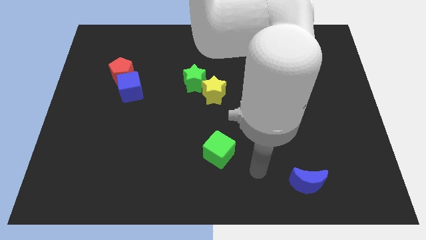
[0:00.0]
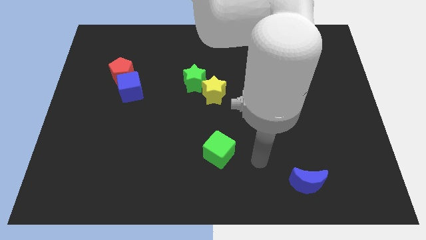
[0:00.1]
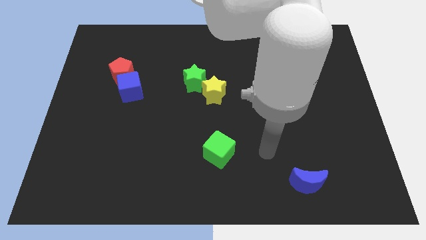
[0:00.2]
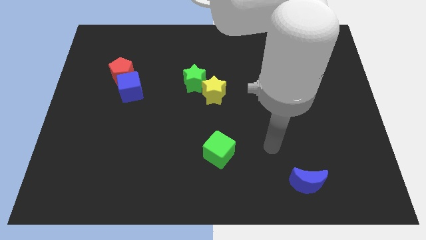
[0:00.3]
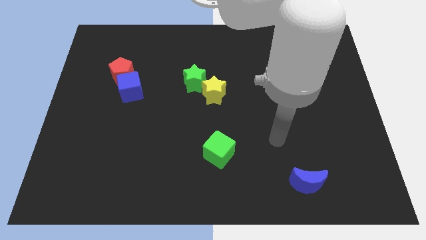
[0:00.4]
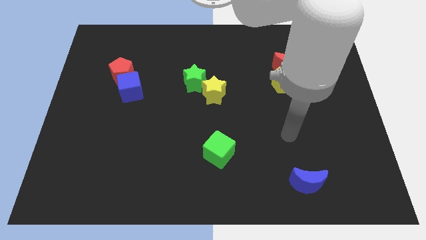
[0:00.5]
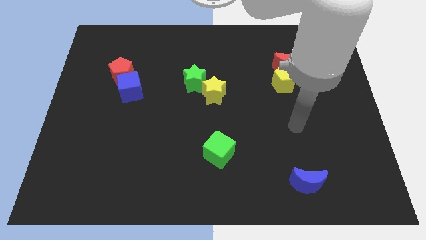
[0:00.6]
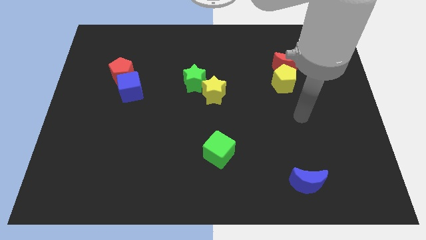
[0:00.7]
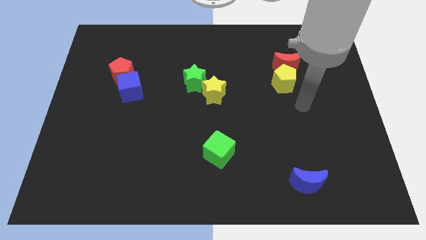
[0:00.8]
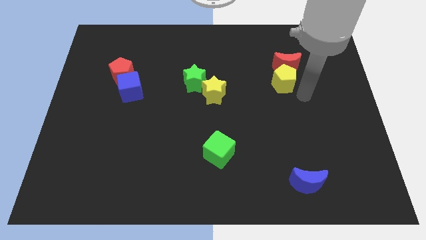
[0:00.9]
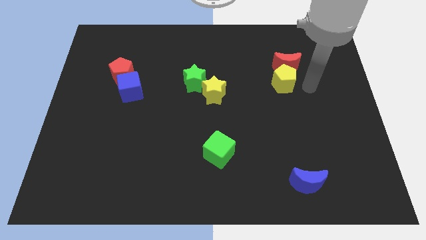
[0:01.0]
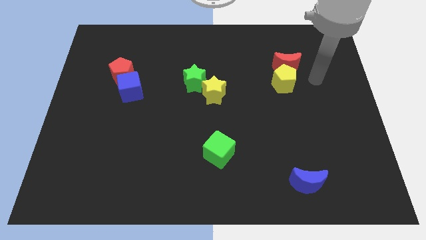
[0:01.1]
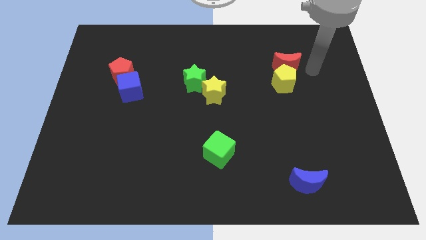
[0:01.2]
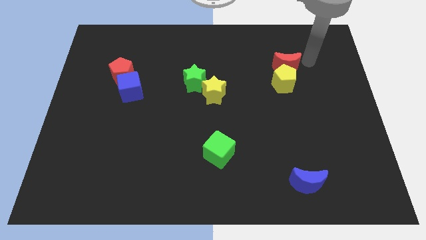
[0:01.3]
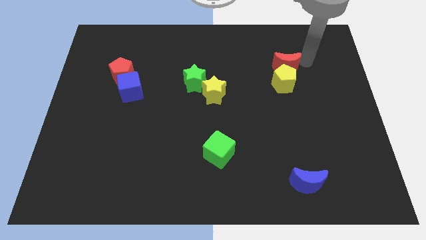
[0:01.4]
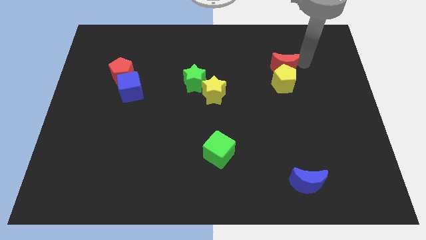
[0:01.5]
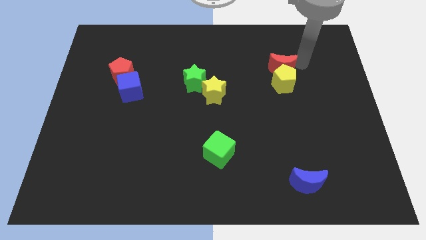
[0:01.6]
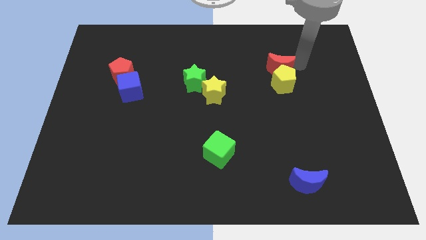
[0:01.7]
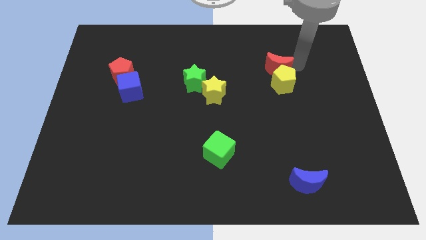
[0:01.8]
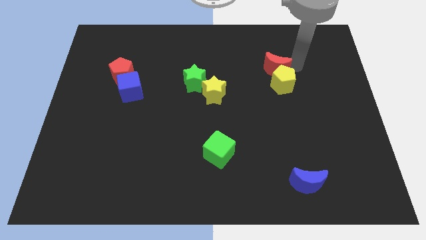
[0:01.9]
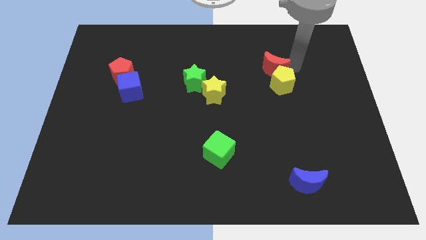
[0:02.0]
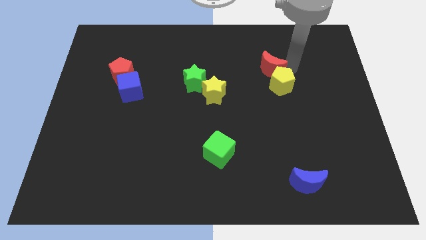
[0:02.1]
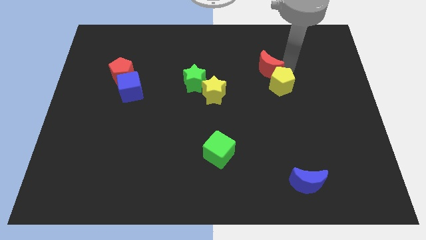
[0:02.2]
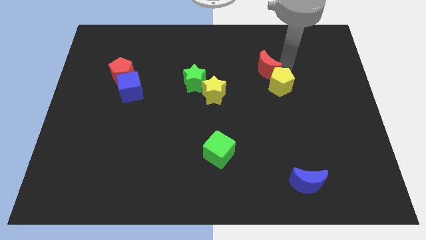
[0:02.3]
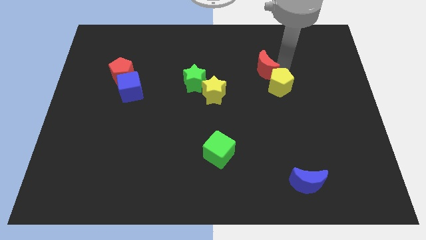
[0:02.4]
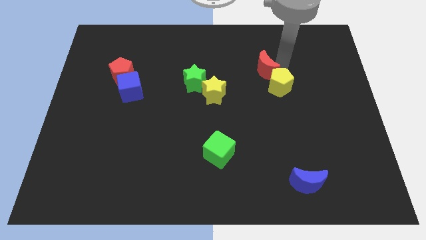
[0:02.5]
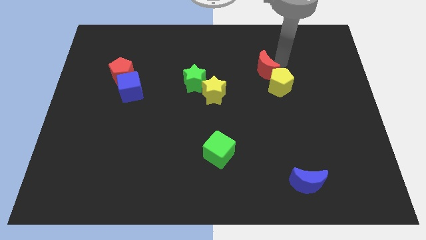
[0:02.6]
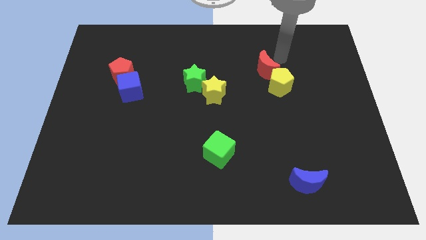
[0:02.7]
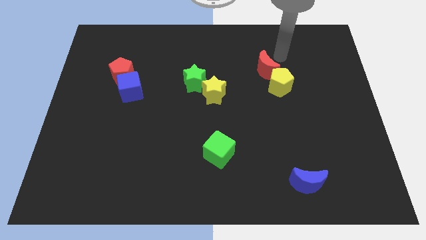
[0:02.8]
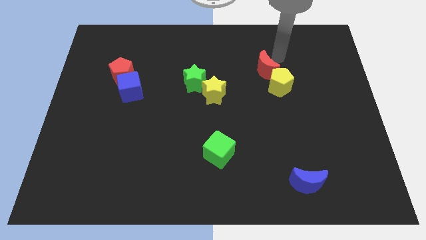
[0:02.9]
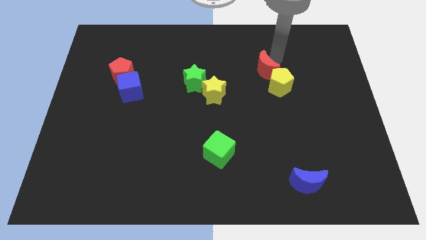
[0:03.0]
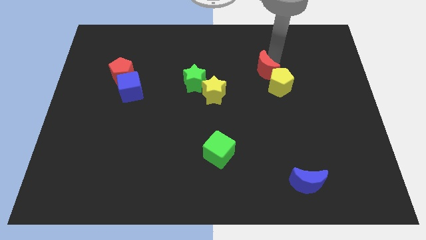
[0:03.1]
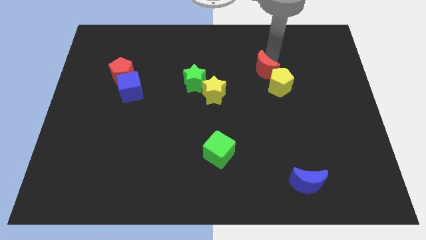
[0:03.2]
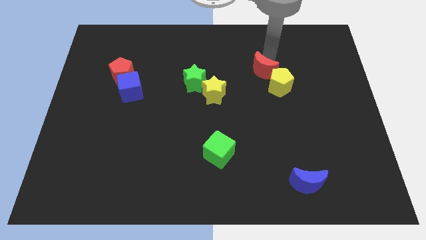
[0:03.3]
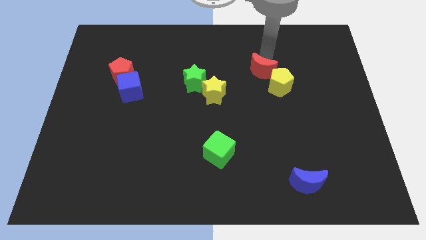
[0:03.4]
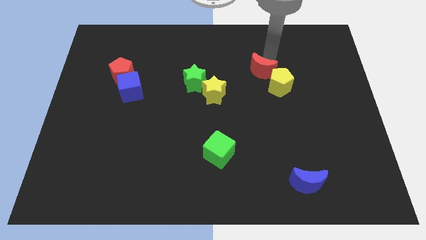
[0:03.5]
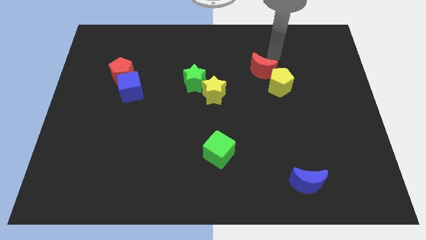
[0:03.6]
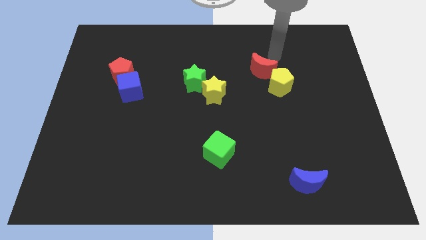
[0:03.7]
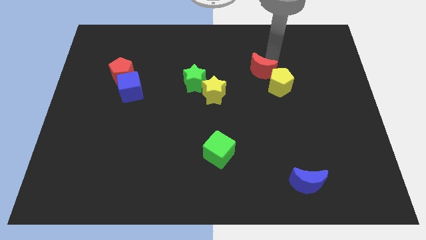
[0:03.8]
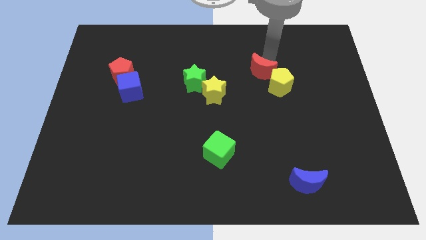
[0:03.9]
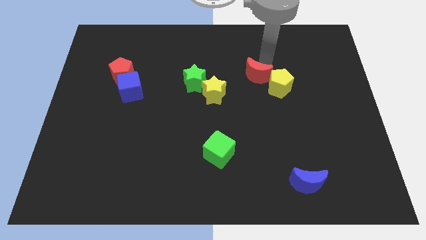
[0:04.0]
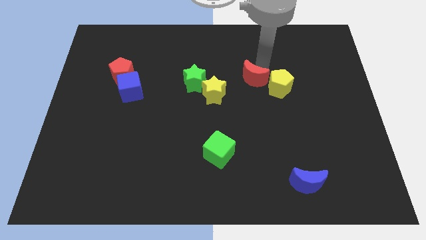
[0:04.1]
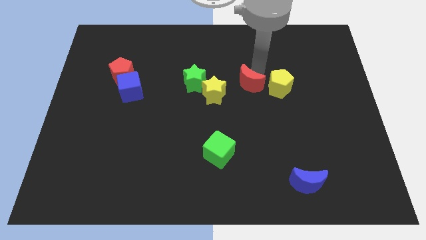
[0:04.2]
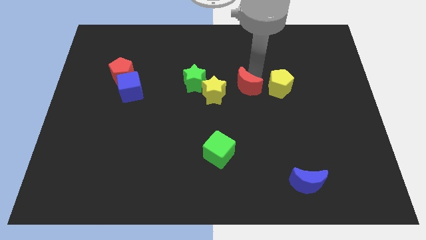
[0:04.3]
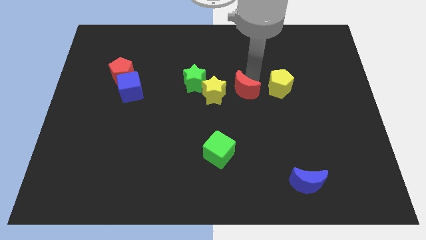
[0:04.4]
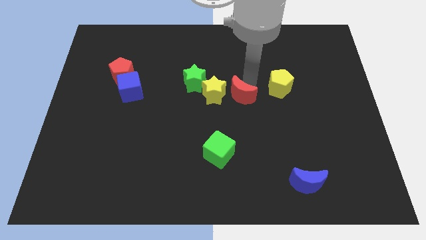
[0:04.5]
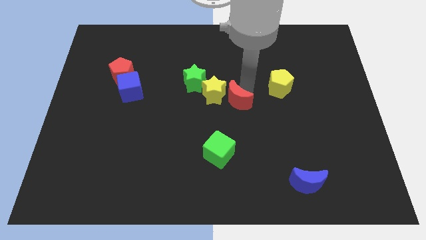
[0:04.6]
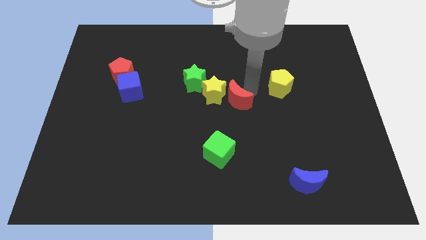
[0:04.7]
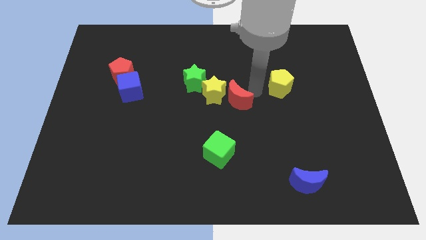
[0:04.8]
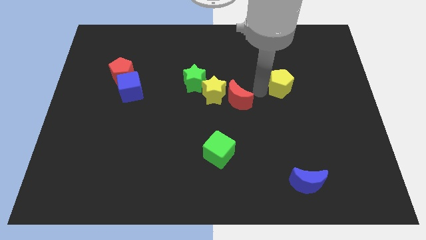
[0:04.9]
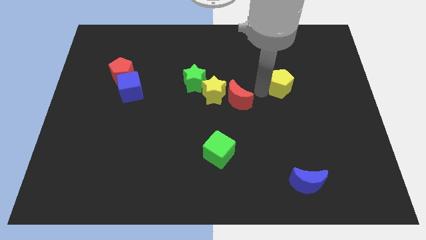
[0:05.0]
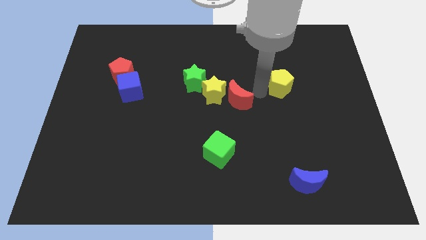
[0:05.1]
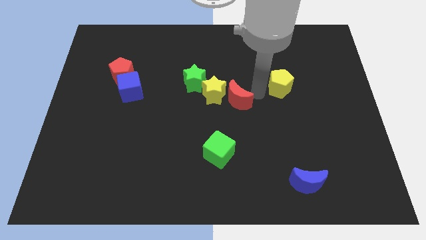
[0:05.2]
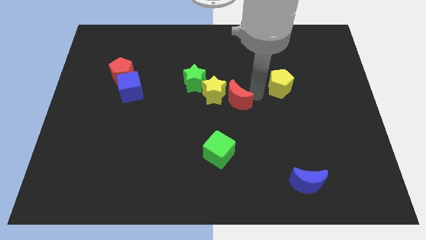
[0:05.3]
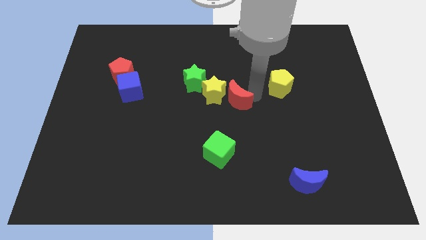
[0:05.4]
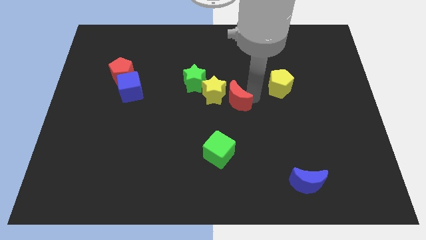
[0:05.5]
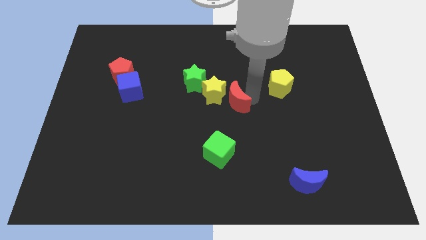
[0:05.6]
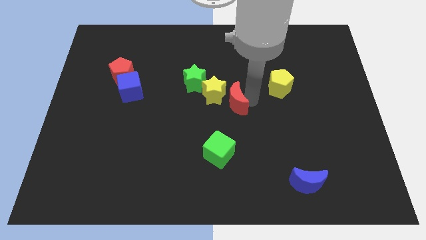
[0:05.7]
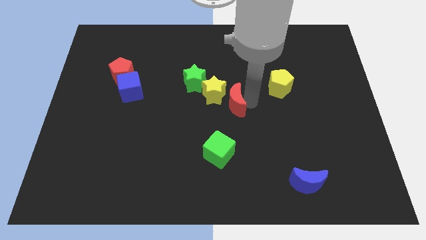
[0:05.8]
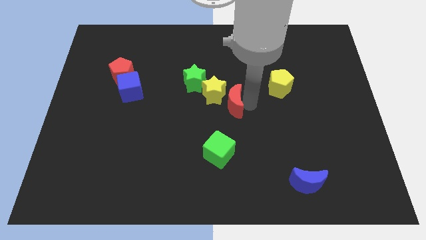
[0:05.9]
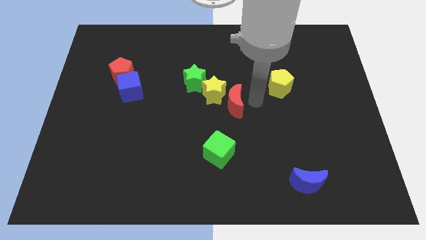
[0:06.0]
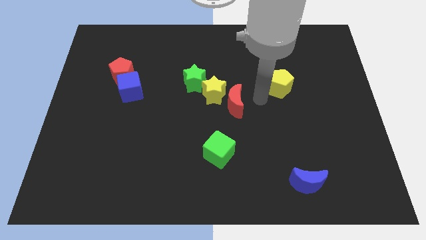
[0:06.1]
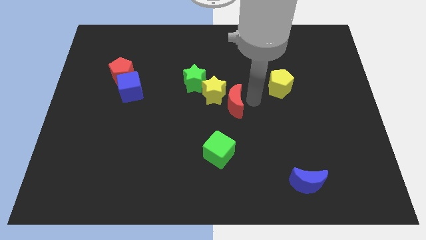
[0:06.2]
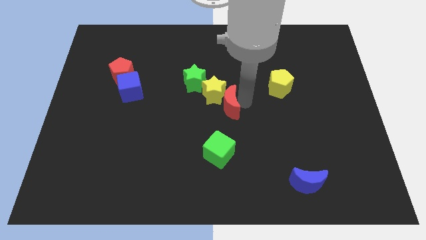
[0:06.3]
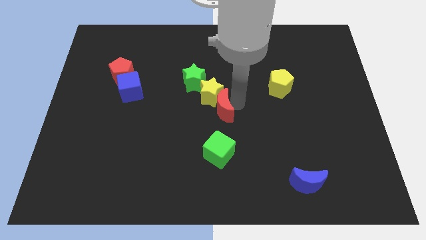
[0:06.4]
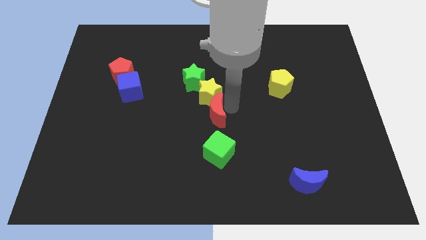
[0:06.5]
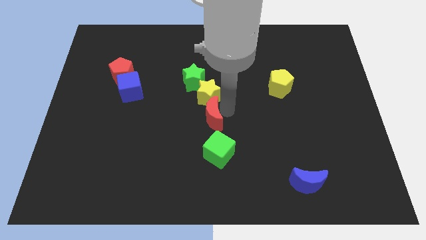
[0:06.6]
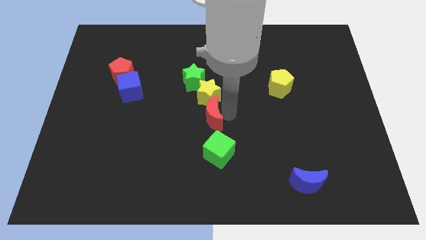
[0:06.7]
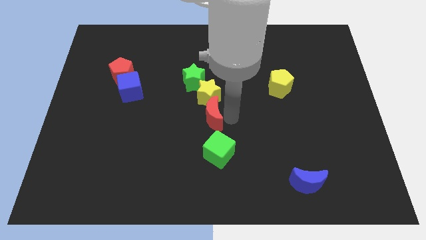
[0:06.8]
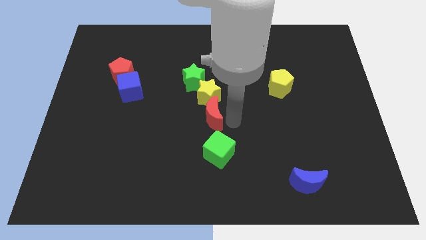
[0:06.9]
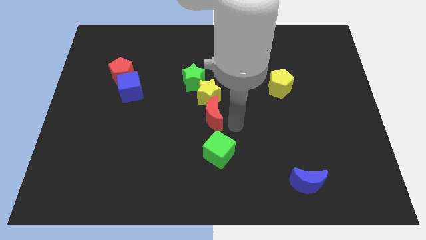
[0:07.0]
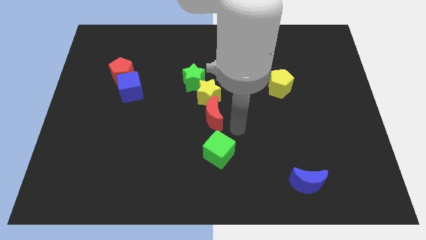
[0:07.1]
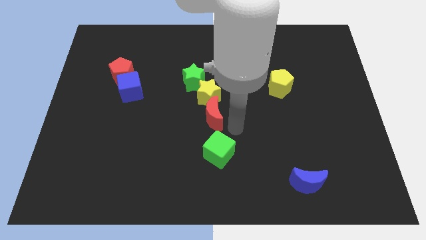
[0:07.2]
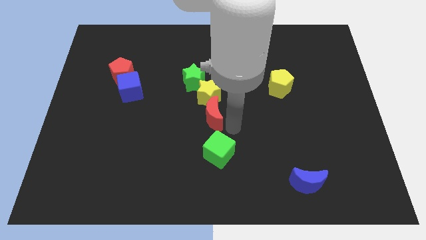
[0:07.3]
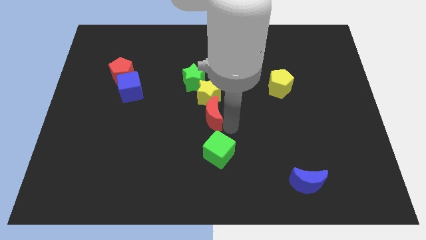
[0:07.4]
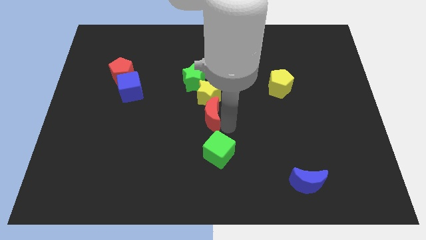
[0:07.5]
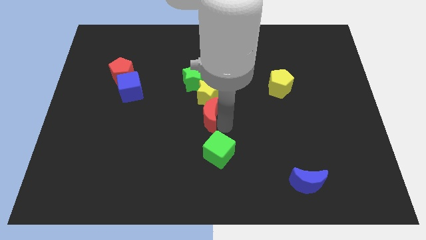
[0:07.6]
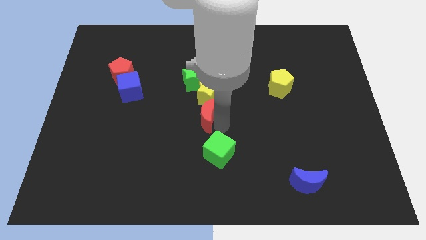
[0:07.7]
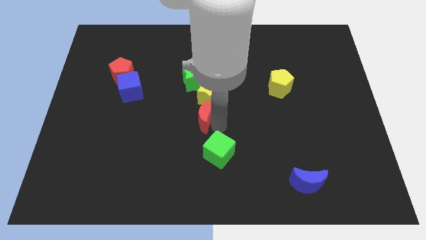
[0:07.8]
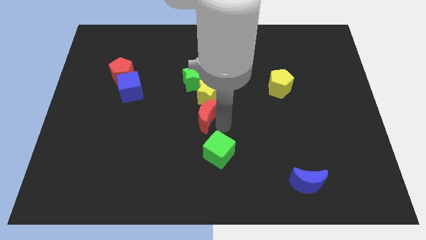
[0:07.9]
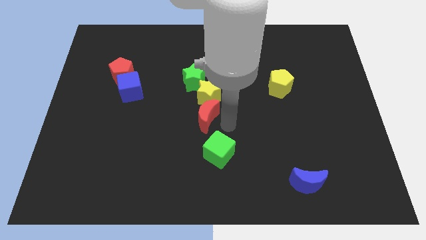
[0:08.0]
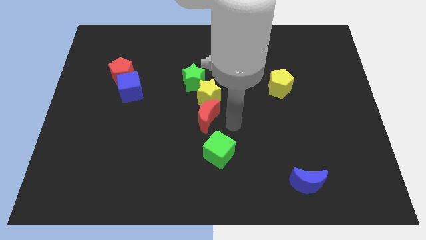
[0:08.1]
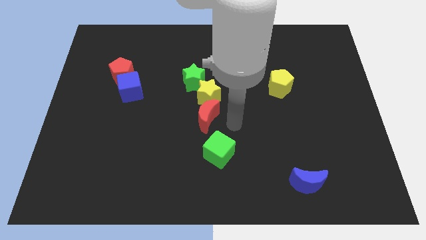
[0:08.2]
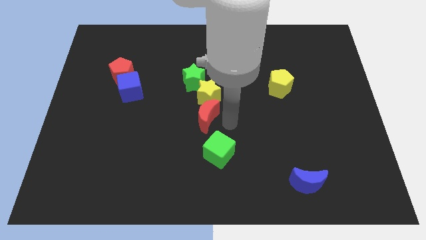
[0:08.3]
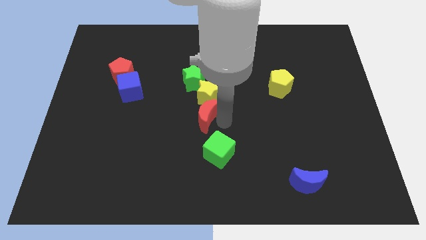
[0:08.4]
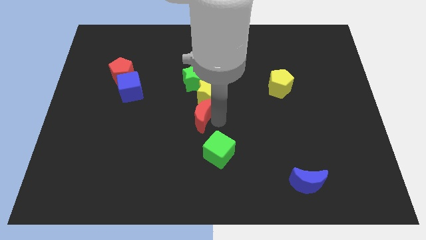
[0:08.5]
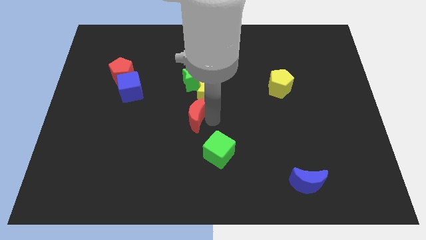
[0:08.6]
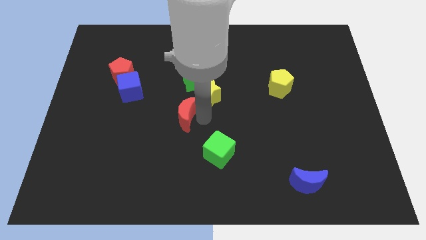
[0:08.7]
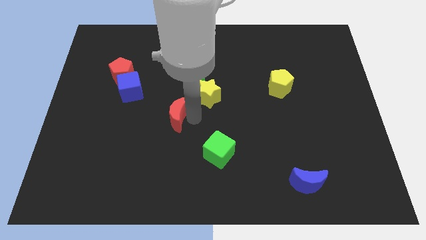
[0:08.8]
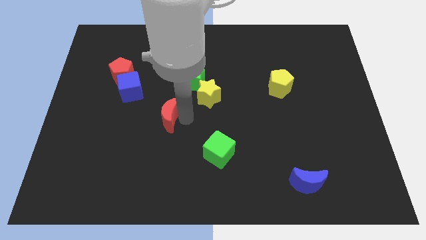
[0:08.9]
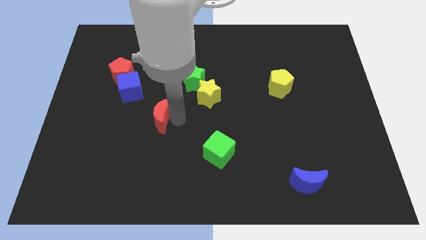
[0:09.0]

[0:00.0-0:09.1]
put the red moon diagonally down and to the right of the blue cube
